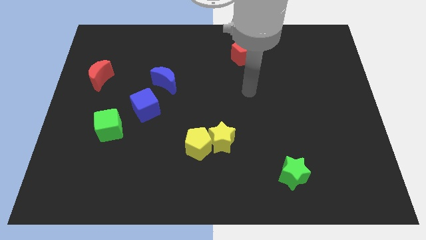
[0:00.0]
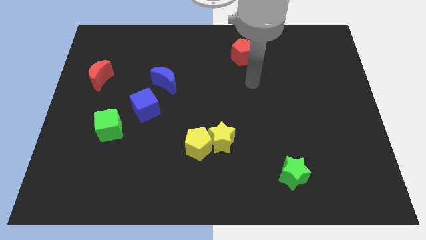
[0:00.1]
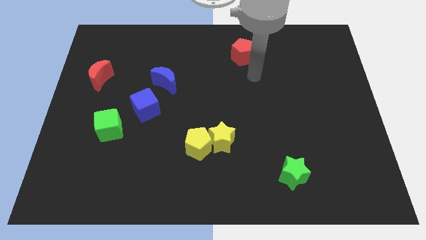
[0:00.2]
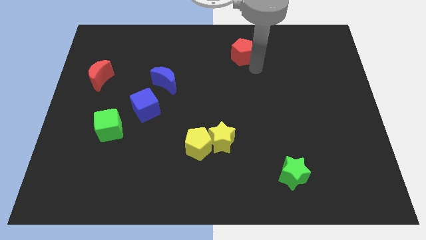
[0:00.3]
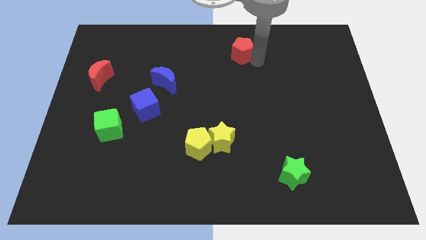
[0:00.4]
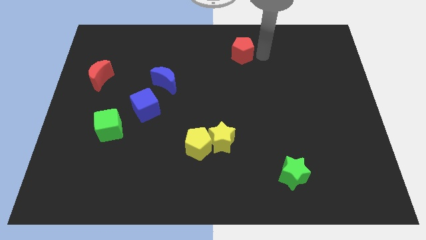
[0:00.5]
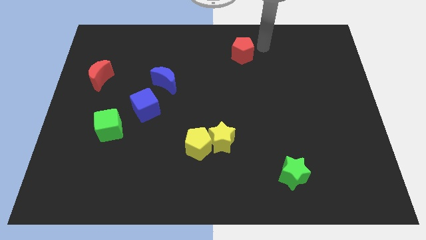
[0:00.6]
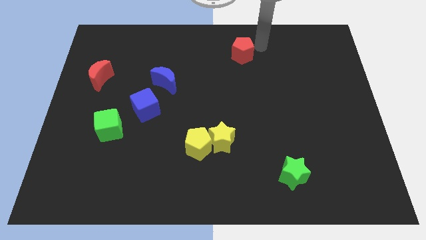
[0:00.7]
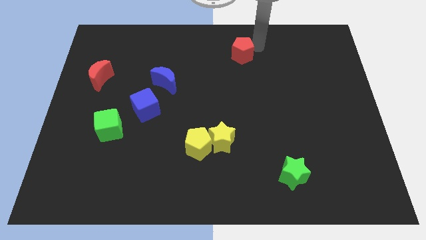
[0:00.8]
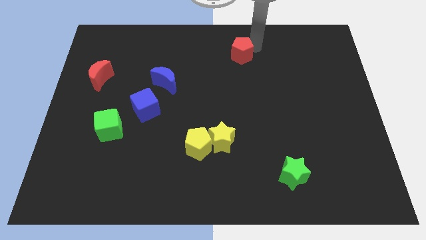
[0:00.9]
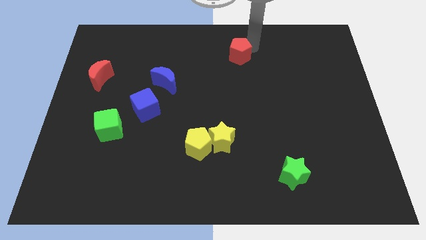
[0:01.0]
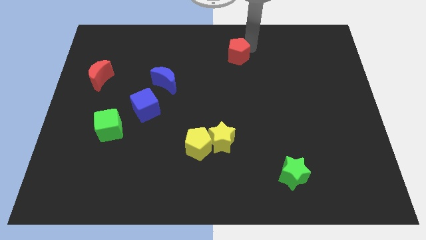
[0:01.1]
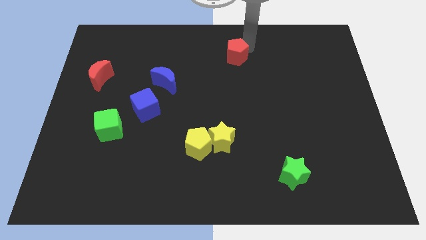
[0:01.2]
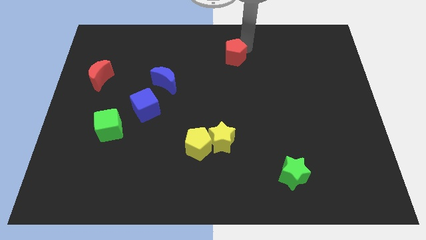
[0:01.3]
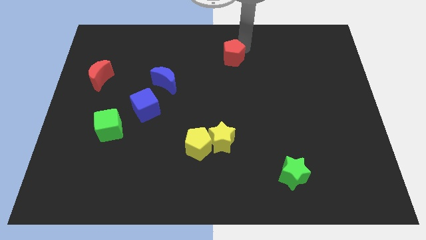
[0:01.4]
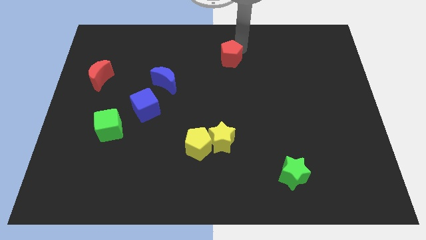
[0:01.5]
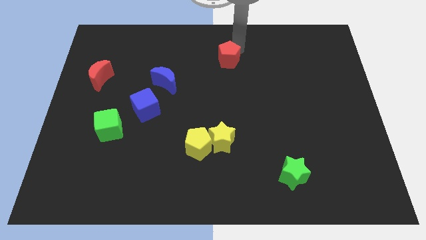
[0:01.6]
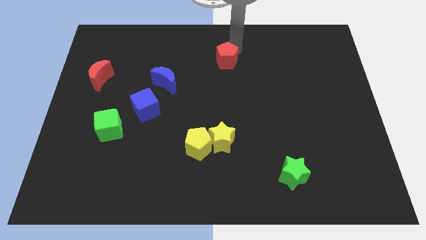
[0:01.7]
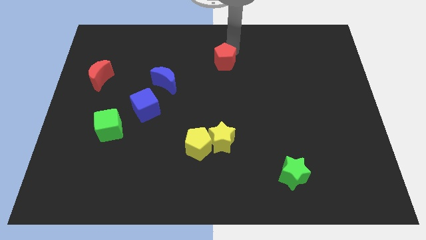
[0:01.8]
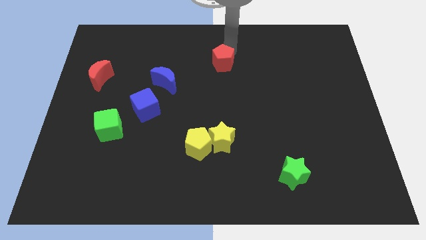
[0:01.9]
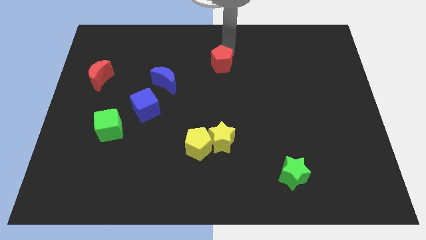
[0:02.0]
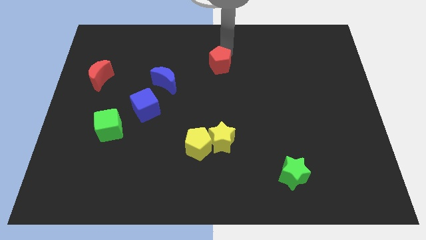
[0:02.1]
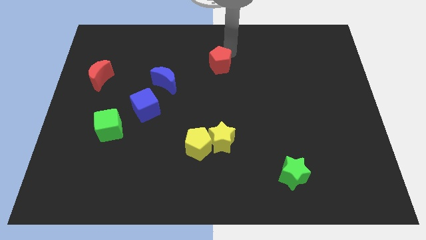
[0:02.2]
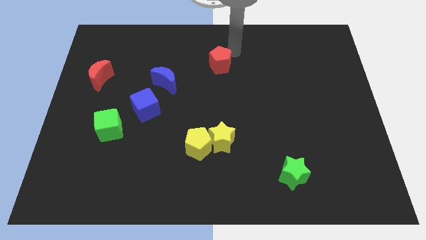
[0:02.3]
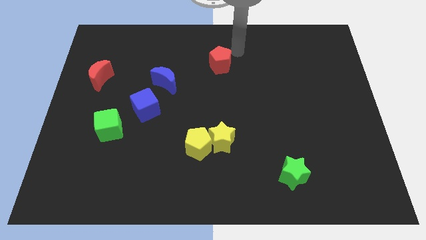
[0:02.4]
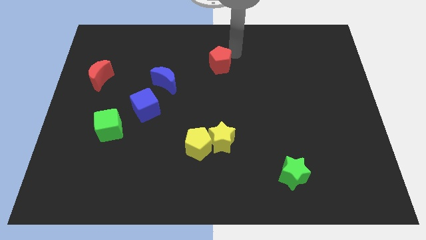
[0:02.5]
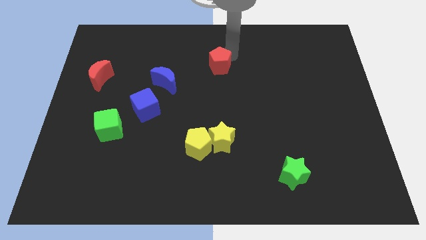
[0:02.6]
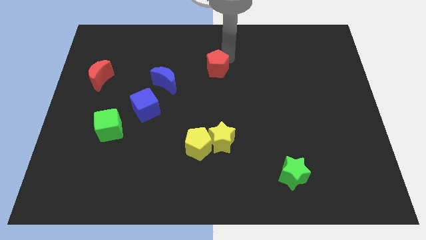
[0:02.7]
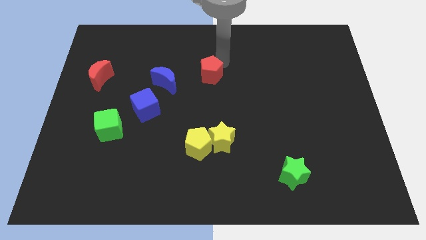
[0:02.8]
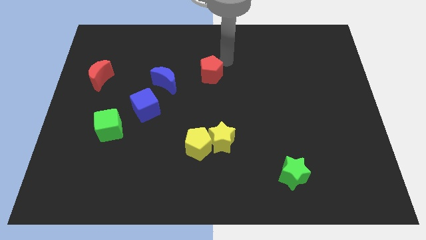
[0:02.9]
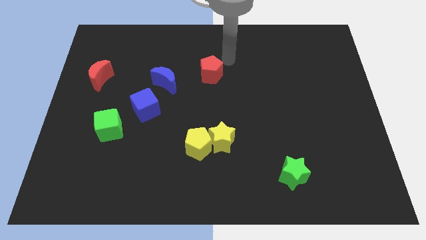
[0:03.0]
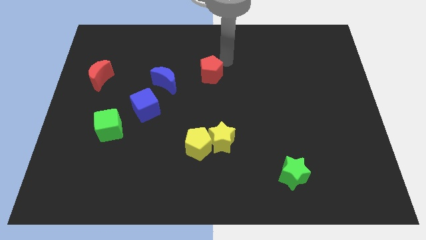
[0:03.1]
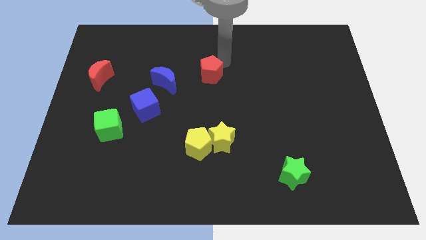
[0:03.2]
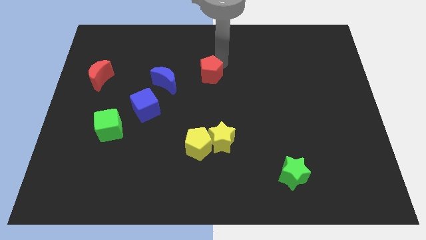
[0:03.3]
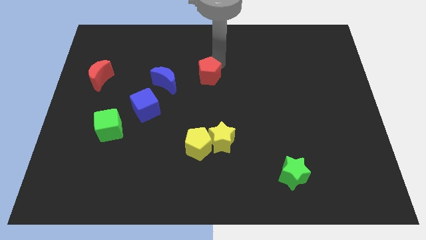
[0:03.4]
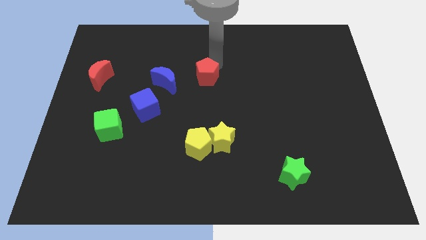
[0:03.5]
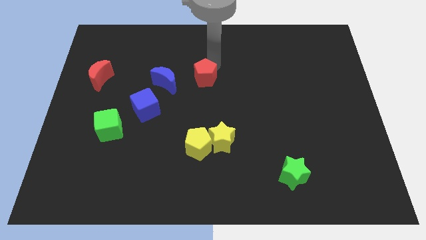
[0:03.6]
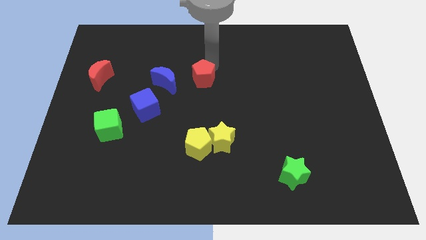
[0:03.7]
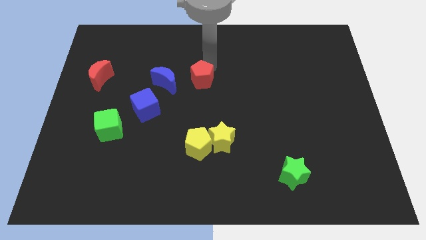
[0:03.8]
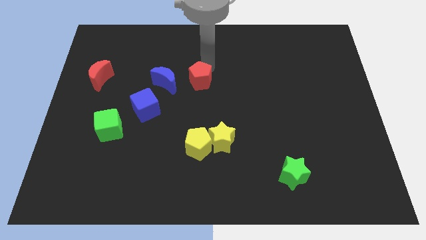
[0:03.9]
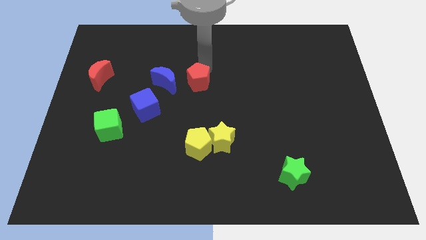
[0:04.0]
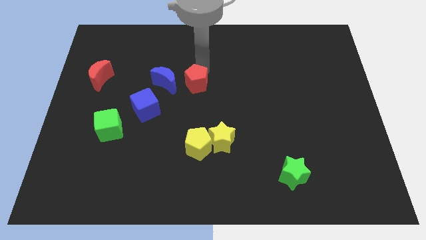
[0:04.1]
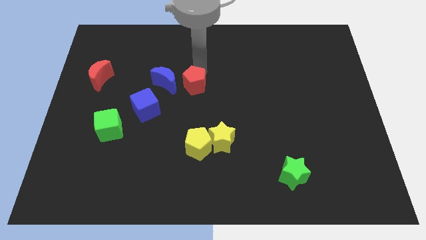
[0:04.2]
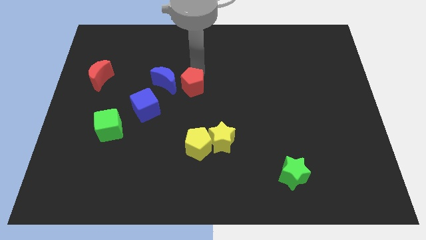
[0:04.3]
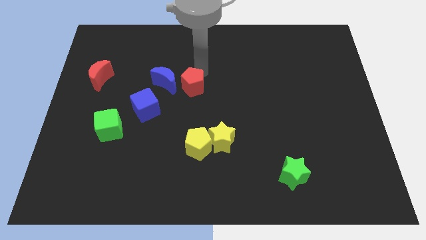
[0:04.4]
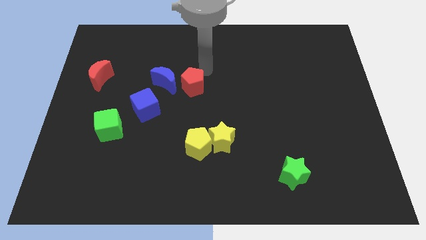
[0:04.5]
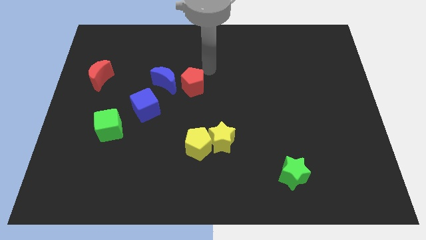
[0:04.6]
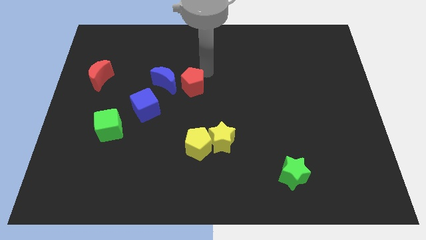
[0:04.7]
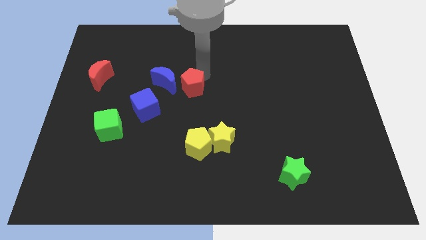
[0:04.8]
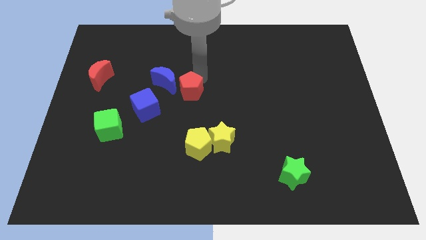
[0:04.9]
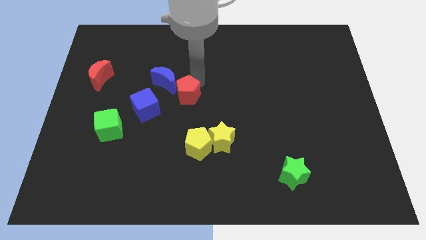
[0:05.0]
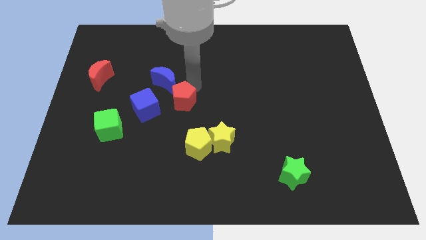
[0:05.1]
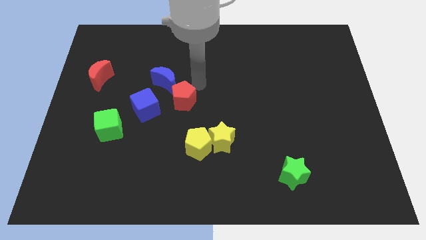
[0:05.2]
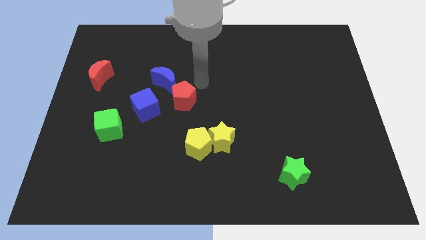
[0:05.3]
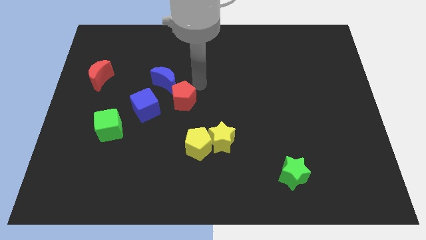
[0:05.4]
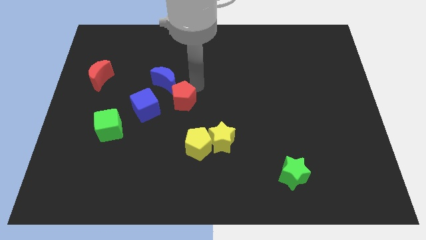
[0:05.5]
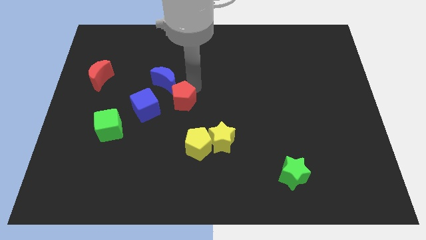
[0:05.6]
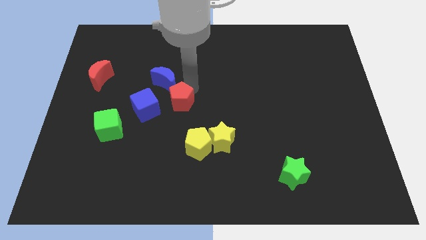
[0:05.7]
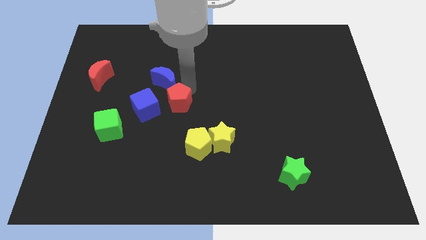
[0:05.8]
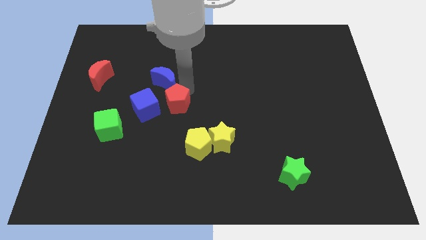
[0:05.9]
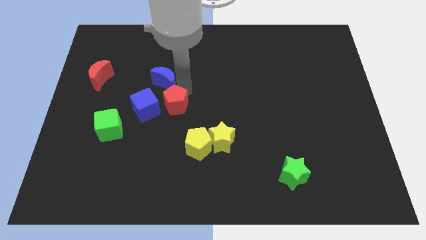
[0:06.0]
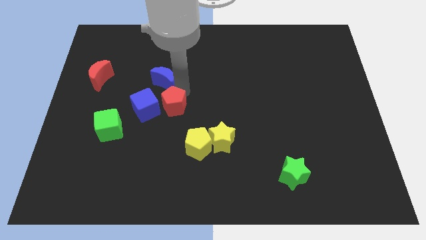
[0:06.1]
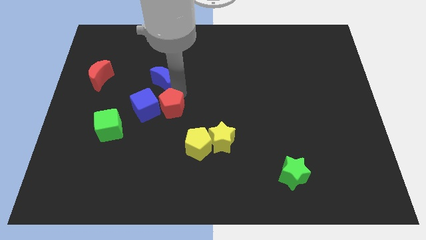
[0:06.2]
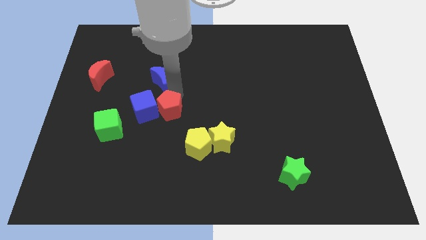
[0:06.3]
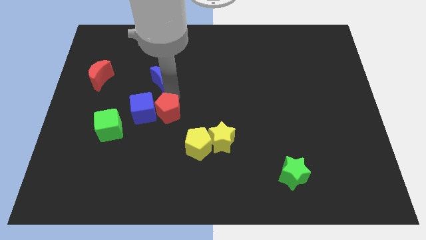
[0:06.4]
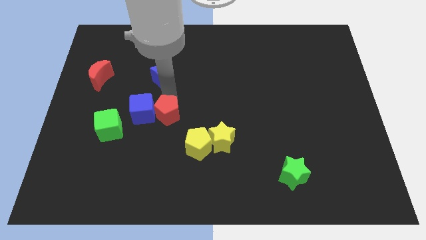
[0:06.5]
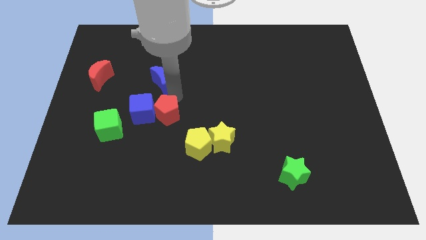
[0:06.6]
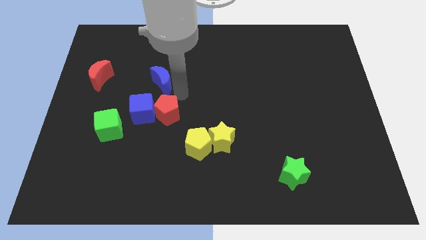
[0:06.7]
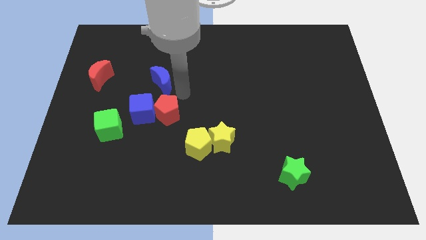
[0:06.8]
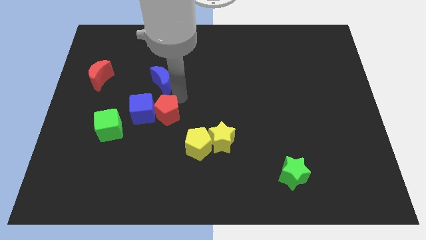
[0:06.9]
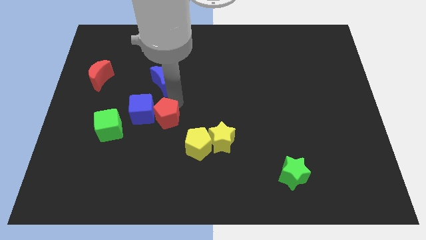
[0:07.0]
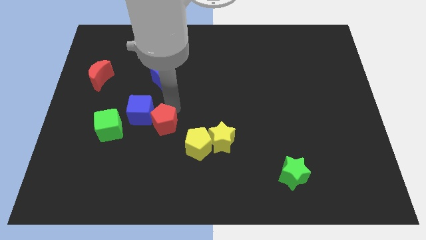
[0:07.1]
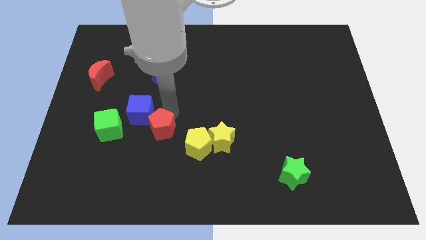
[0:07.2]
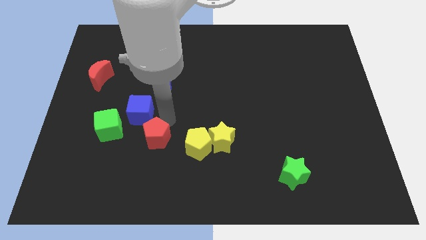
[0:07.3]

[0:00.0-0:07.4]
slide the red pentagon to the bottom of the blue cube
